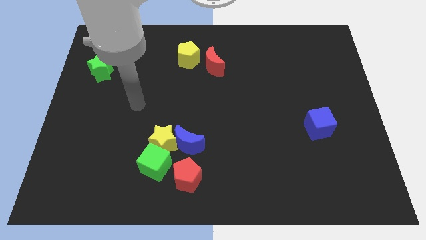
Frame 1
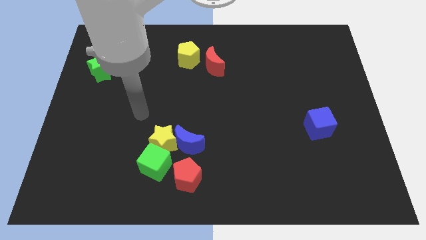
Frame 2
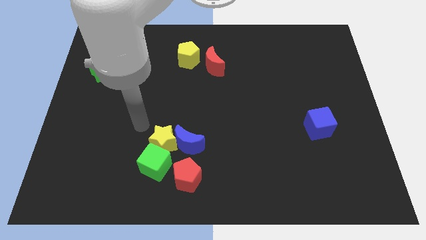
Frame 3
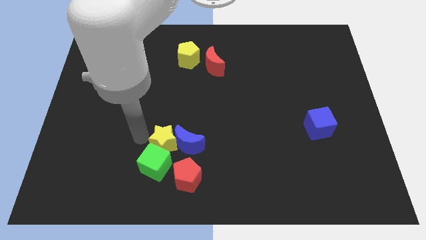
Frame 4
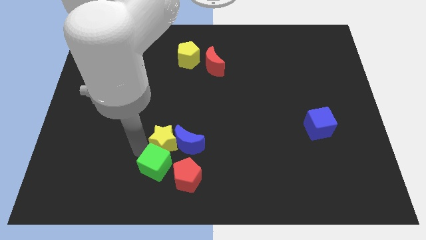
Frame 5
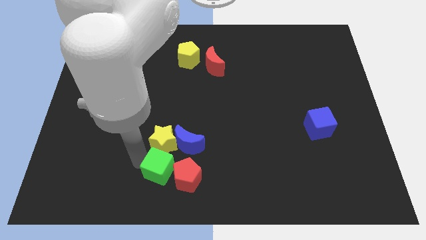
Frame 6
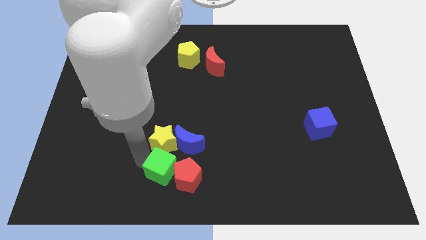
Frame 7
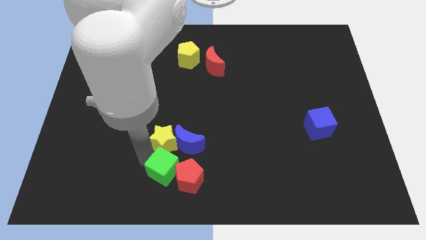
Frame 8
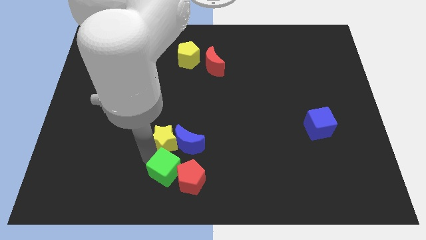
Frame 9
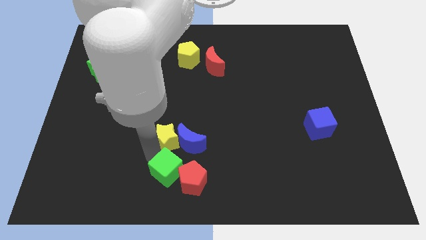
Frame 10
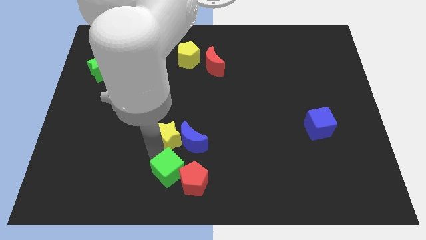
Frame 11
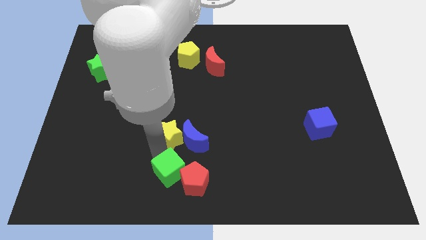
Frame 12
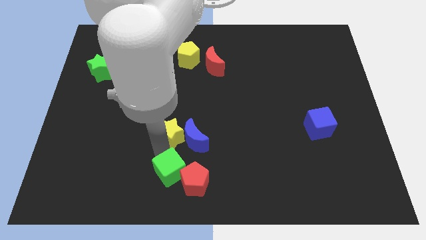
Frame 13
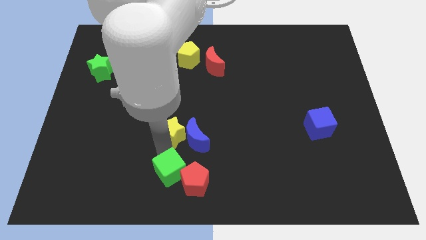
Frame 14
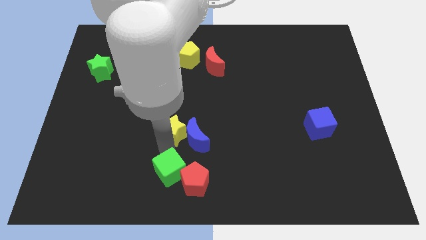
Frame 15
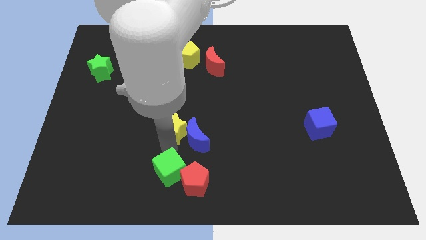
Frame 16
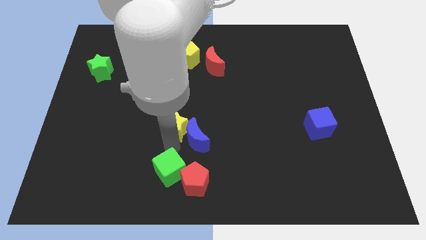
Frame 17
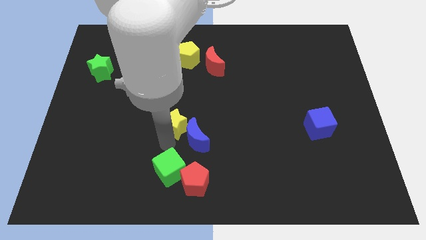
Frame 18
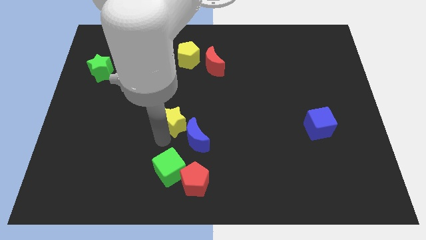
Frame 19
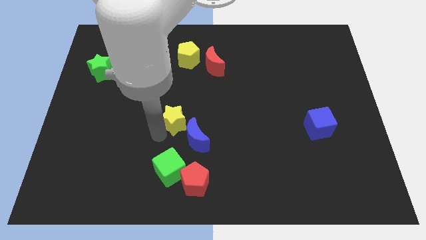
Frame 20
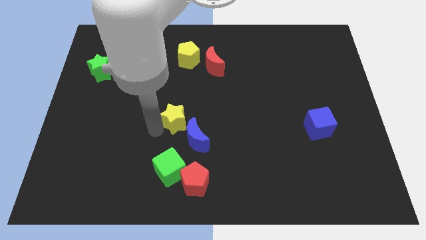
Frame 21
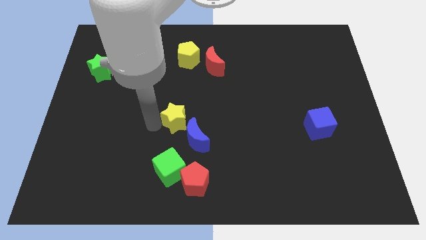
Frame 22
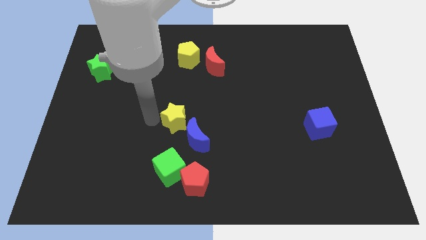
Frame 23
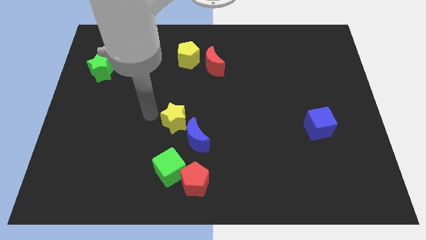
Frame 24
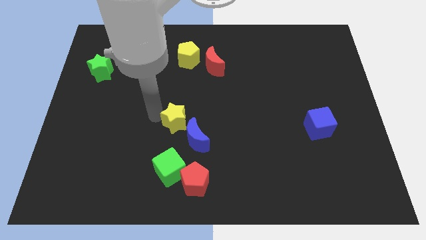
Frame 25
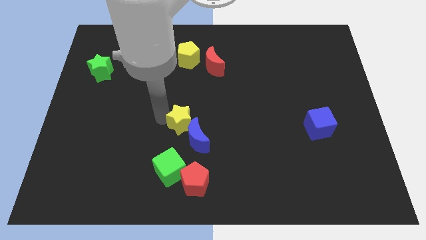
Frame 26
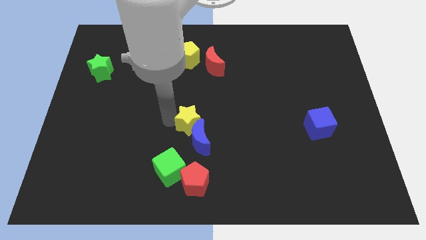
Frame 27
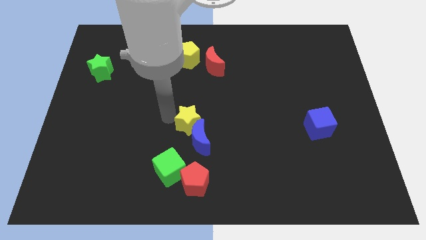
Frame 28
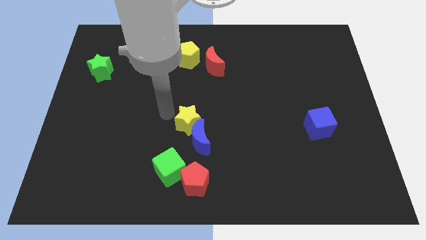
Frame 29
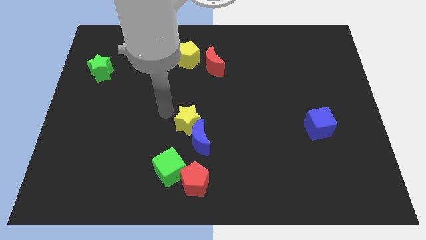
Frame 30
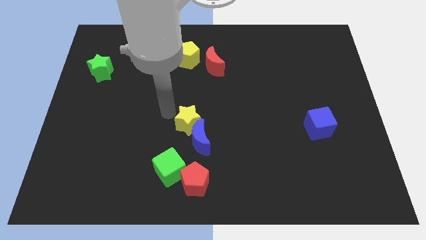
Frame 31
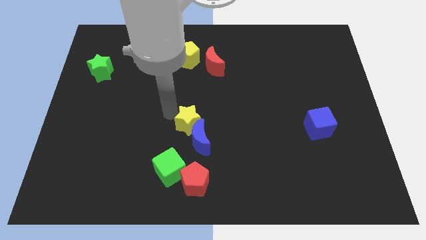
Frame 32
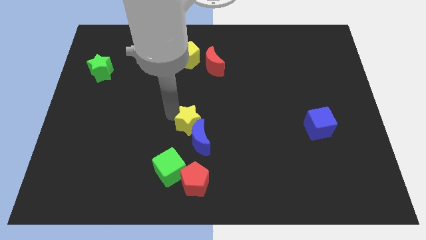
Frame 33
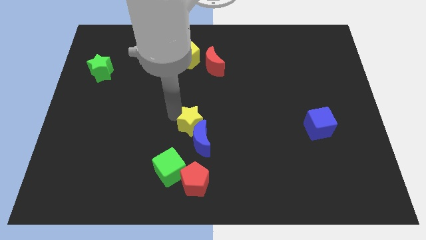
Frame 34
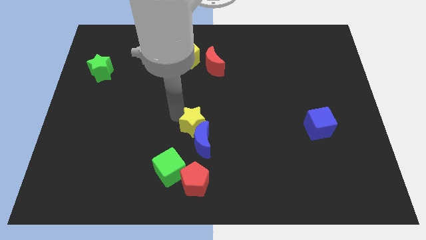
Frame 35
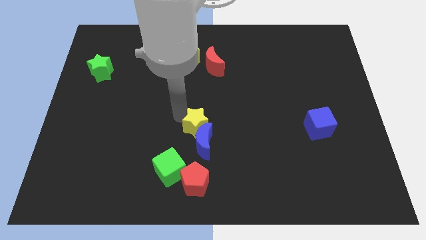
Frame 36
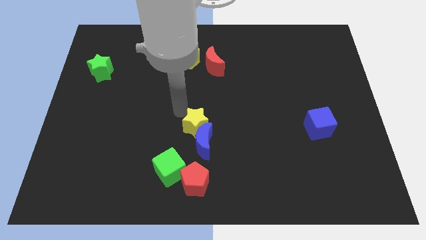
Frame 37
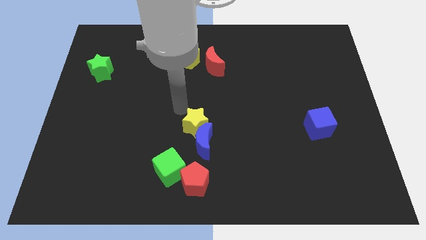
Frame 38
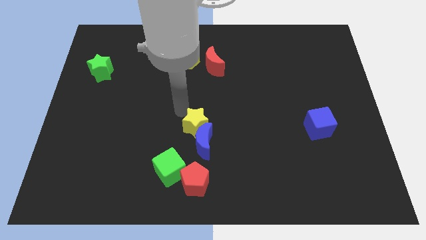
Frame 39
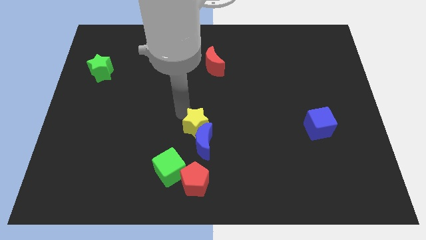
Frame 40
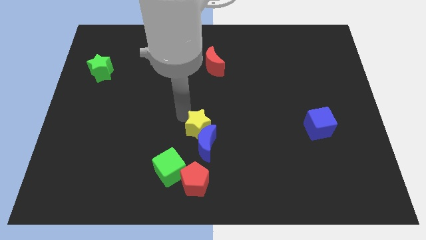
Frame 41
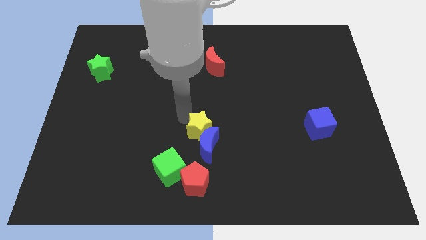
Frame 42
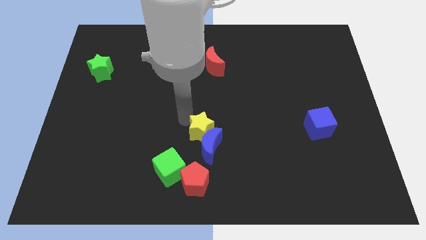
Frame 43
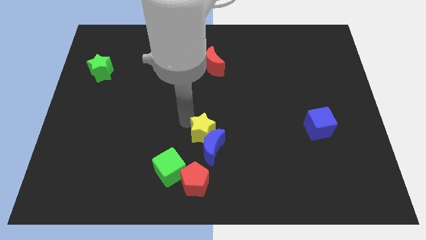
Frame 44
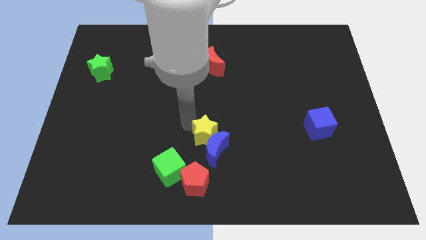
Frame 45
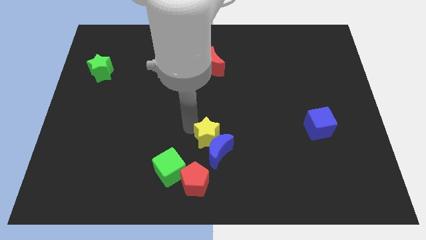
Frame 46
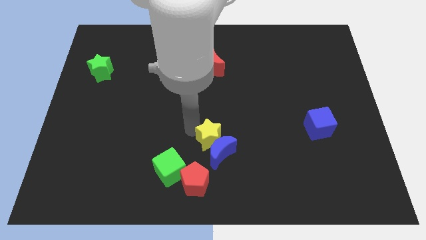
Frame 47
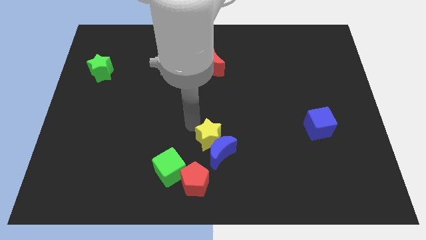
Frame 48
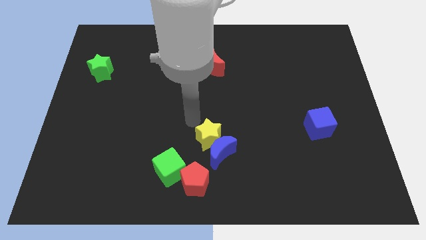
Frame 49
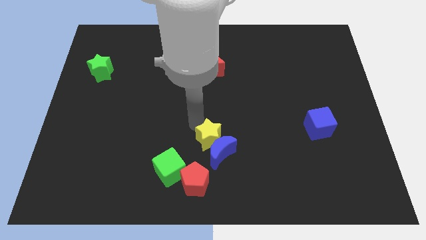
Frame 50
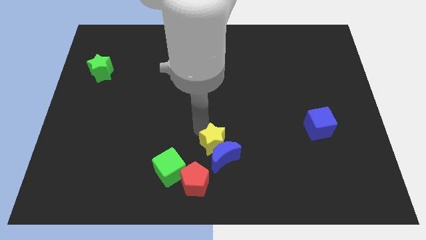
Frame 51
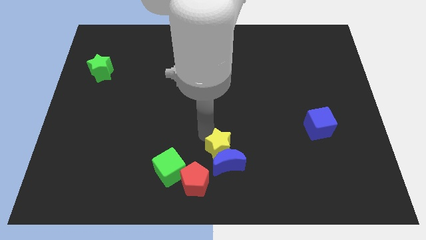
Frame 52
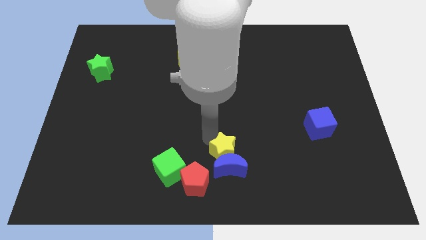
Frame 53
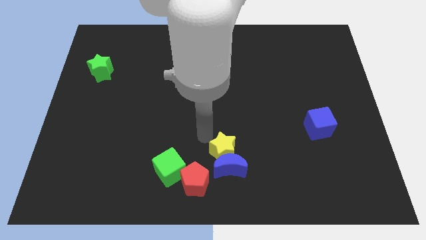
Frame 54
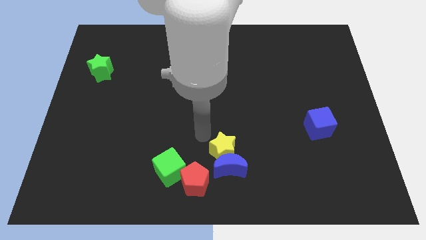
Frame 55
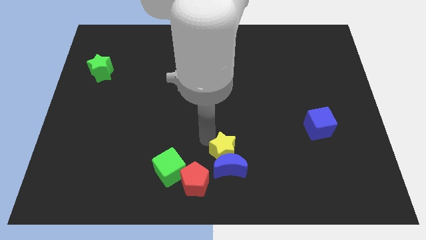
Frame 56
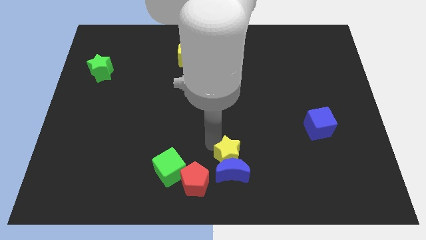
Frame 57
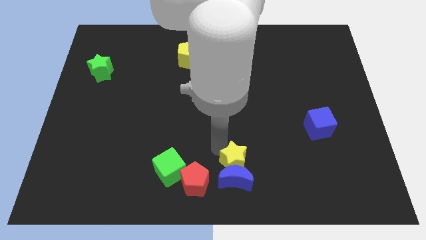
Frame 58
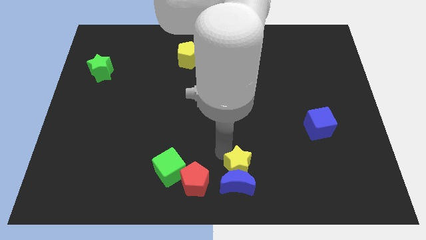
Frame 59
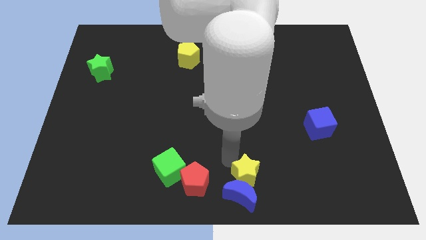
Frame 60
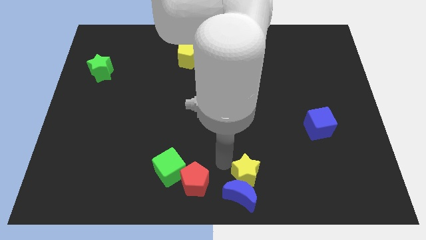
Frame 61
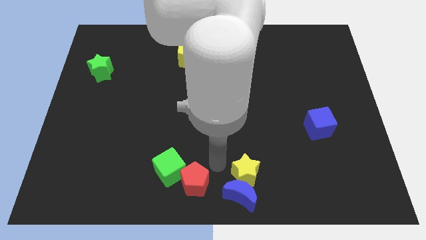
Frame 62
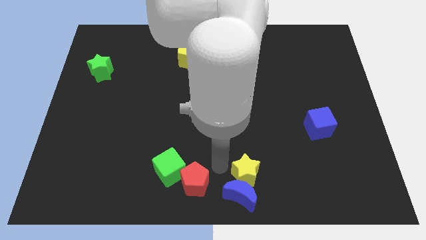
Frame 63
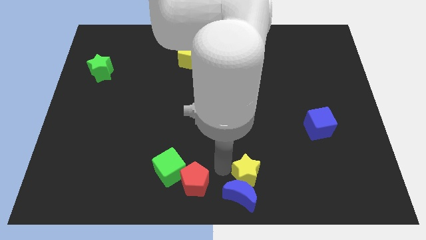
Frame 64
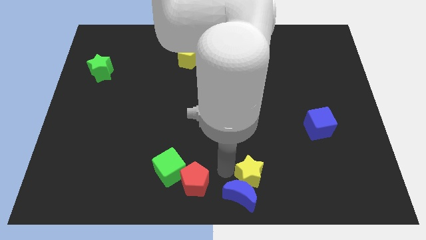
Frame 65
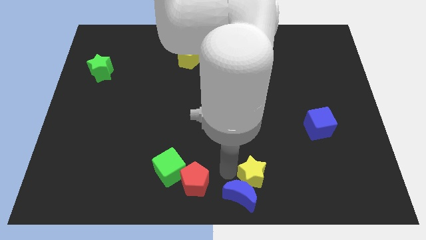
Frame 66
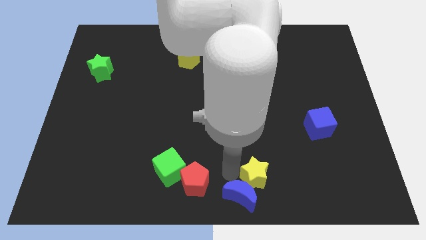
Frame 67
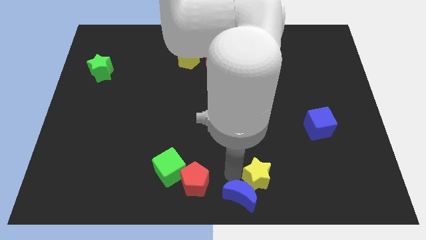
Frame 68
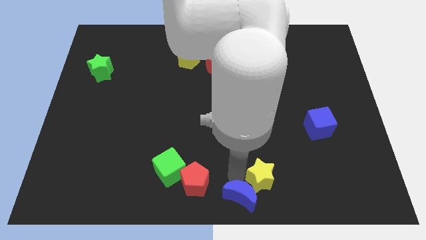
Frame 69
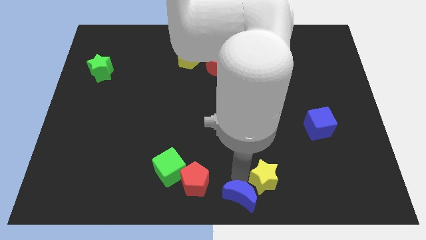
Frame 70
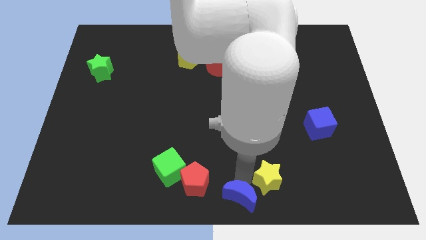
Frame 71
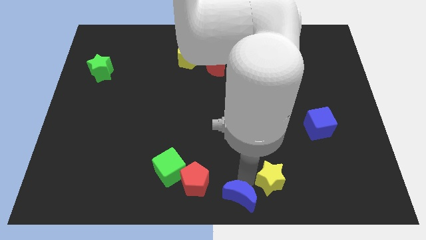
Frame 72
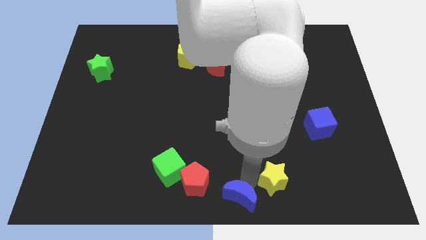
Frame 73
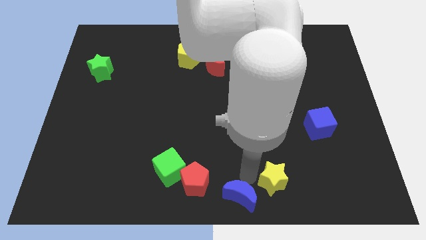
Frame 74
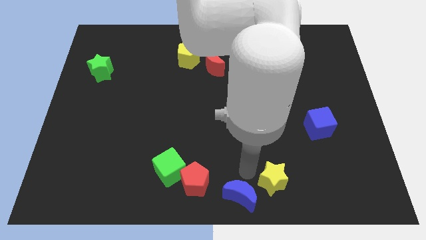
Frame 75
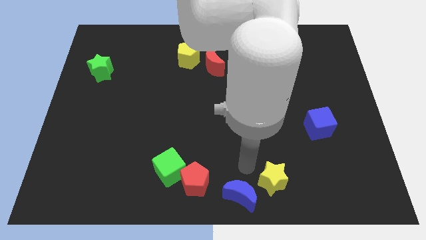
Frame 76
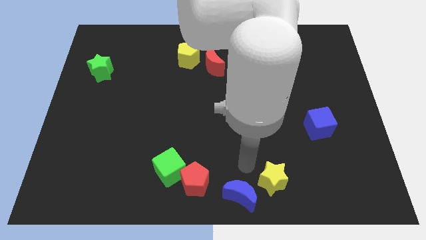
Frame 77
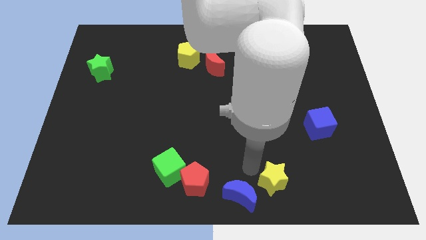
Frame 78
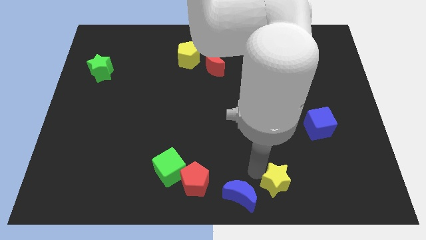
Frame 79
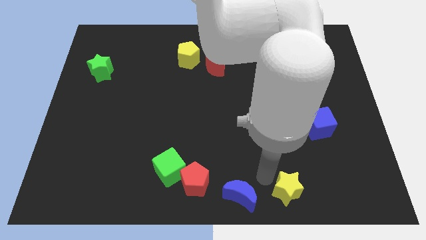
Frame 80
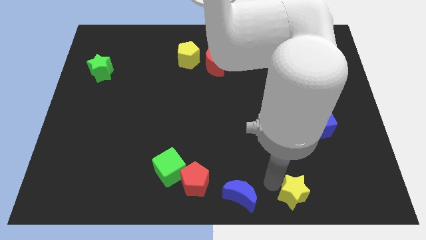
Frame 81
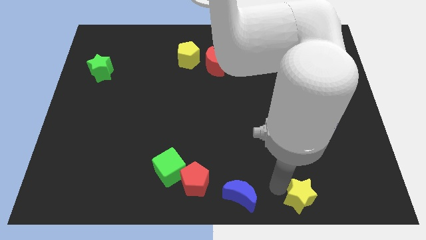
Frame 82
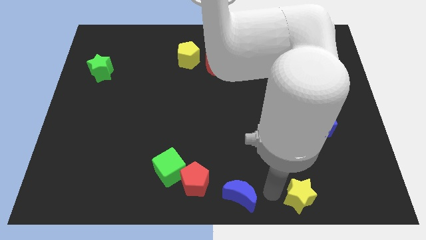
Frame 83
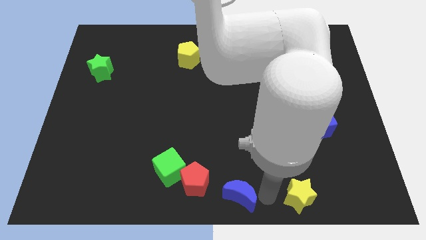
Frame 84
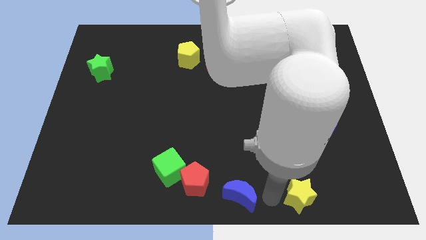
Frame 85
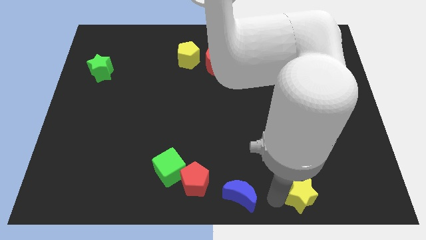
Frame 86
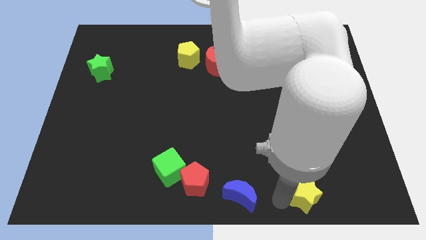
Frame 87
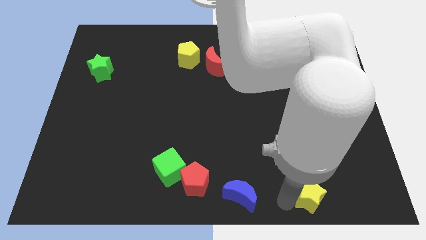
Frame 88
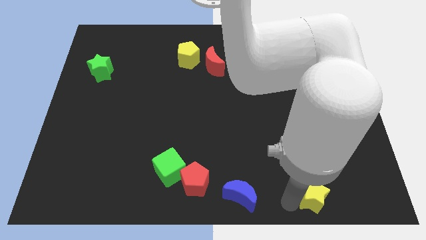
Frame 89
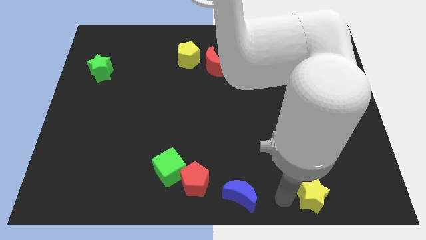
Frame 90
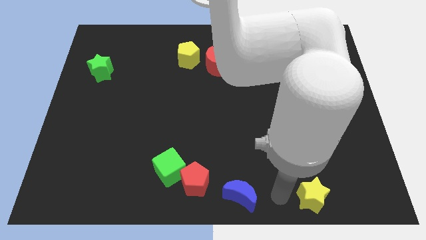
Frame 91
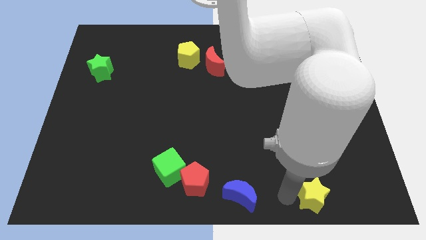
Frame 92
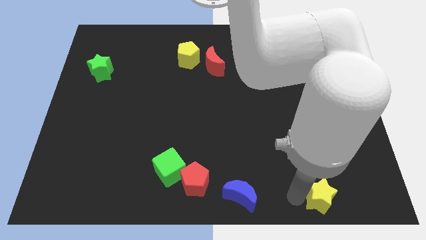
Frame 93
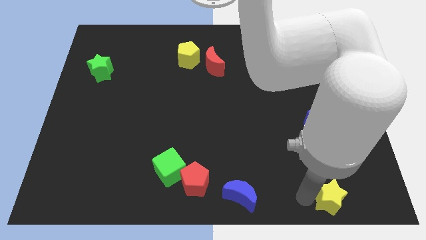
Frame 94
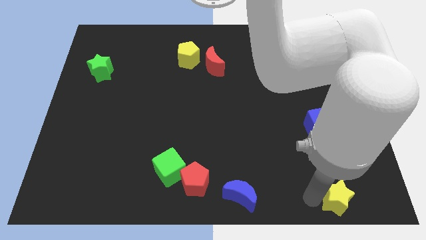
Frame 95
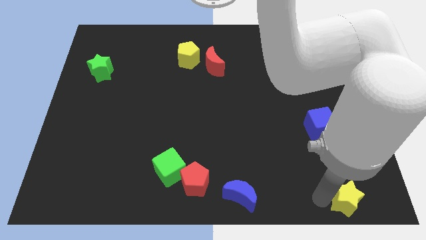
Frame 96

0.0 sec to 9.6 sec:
slide the yellow star to the bottom right
